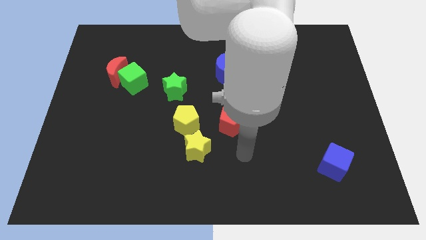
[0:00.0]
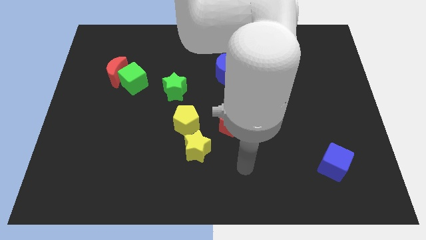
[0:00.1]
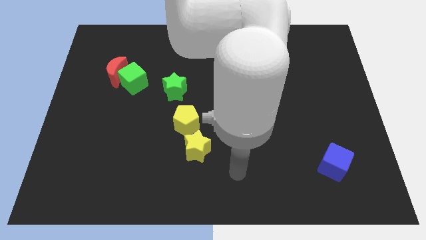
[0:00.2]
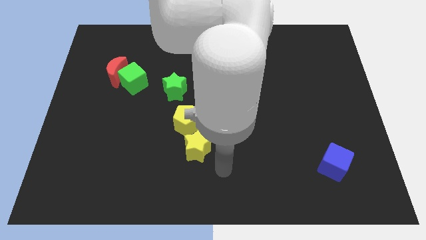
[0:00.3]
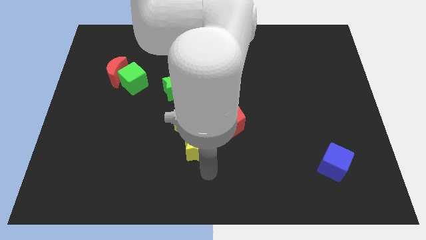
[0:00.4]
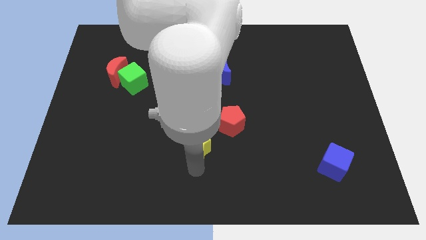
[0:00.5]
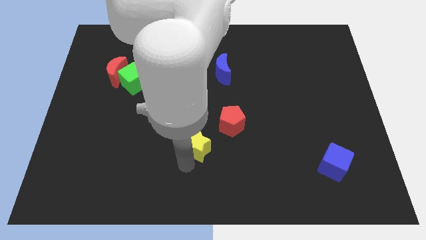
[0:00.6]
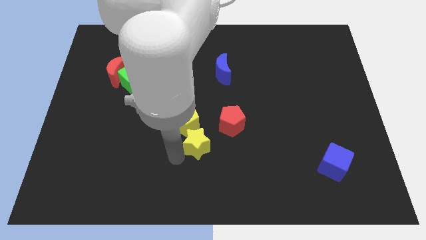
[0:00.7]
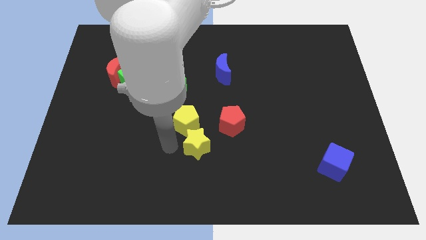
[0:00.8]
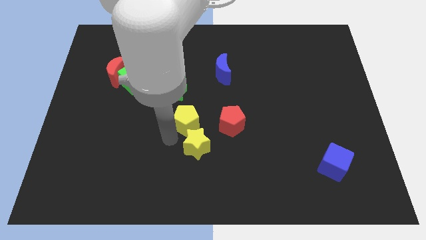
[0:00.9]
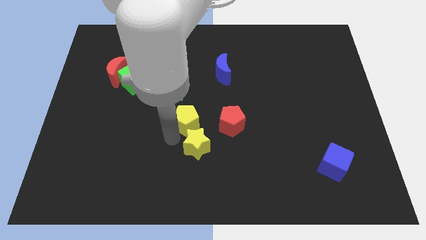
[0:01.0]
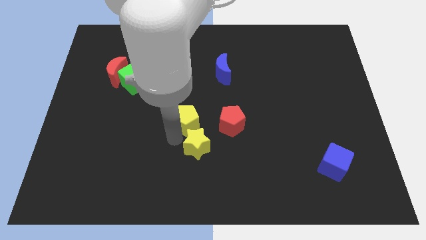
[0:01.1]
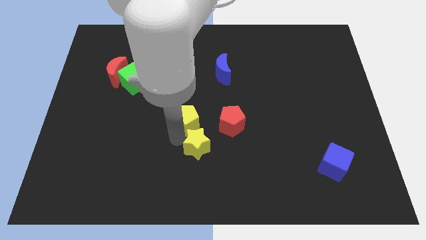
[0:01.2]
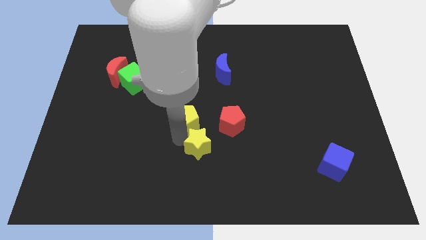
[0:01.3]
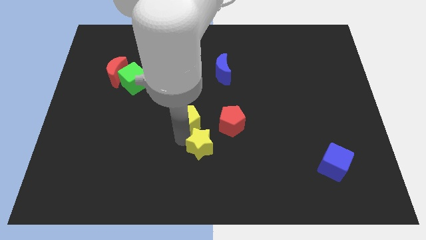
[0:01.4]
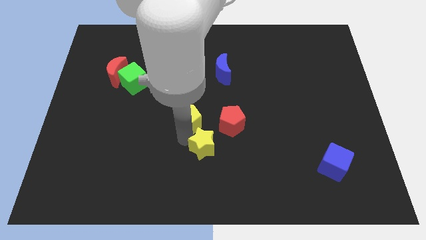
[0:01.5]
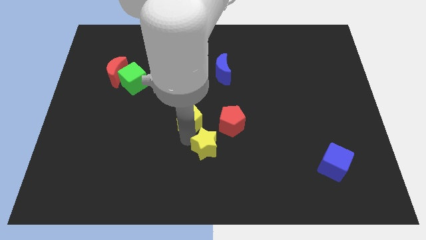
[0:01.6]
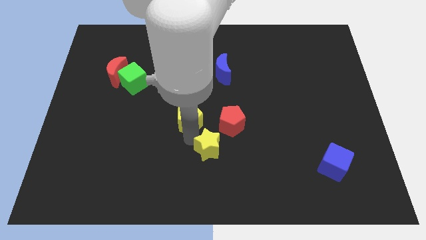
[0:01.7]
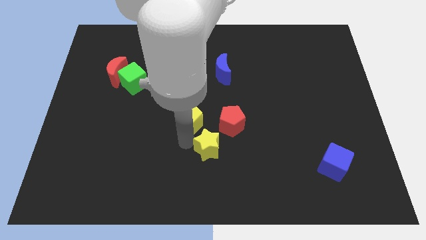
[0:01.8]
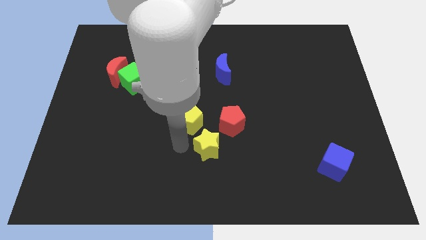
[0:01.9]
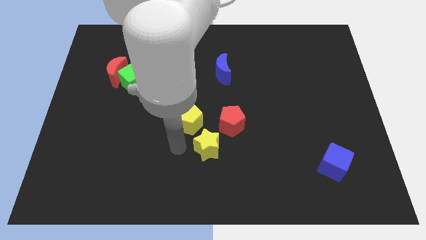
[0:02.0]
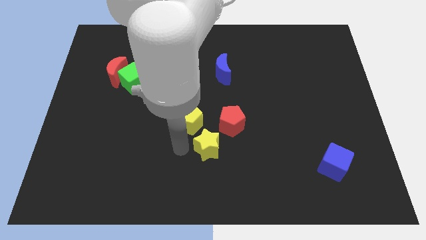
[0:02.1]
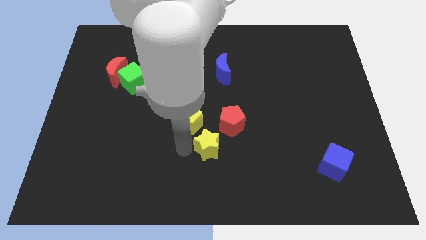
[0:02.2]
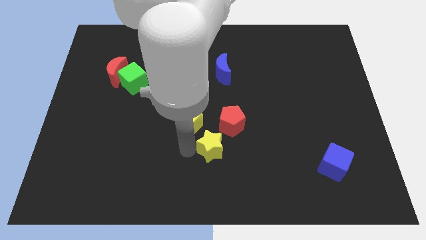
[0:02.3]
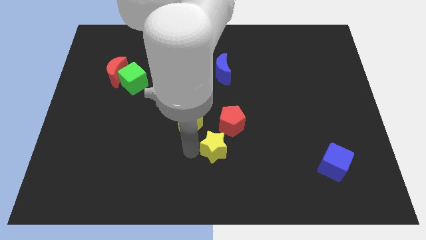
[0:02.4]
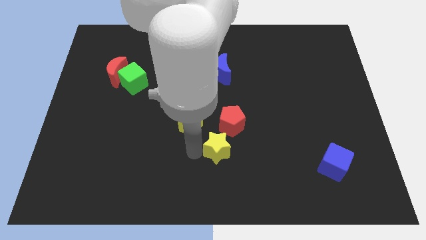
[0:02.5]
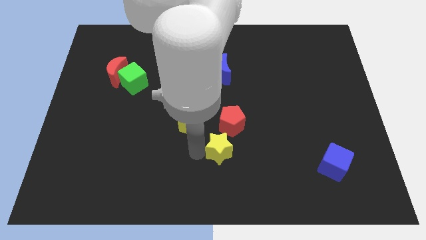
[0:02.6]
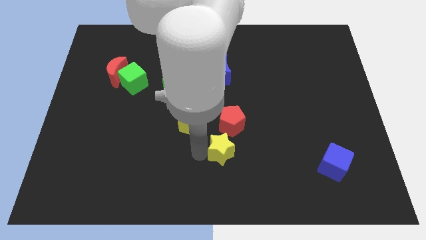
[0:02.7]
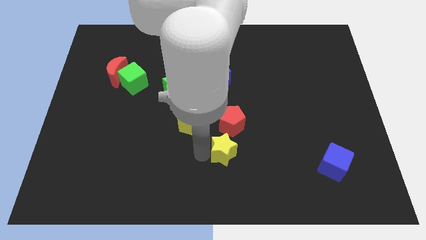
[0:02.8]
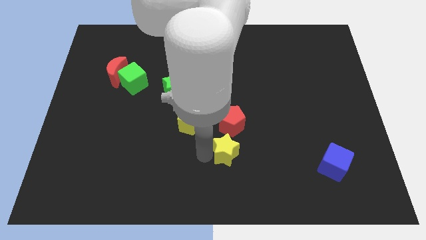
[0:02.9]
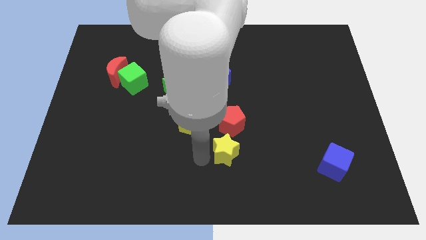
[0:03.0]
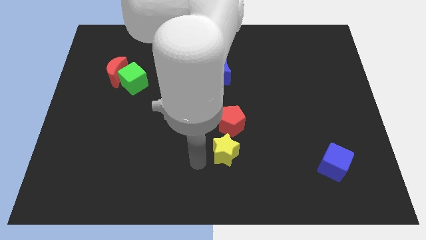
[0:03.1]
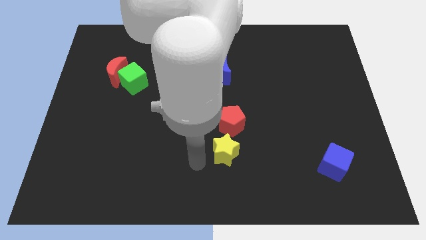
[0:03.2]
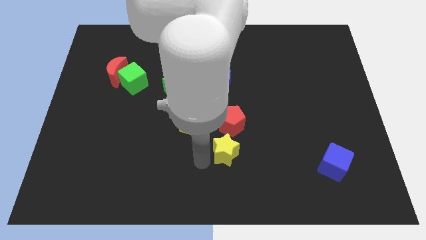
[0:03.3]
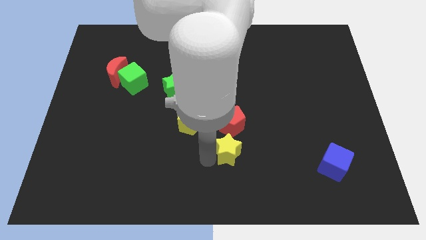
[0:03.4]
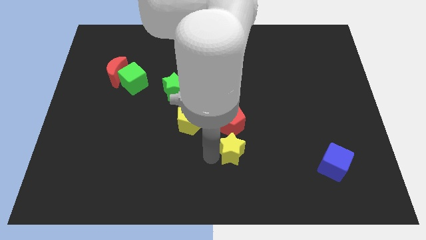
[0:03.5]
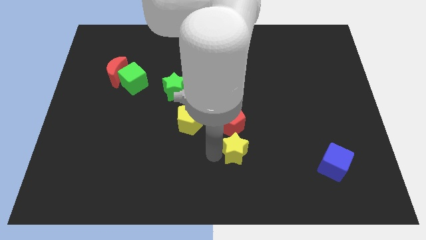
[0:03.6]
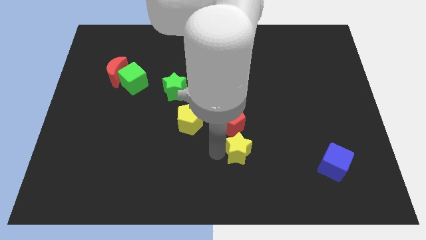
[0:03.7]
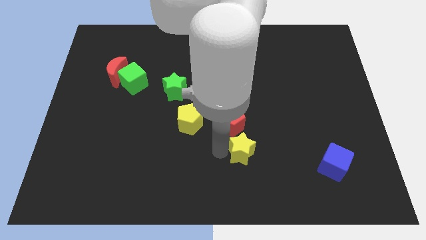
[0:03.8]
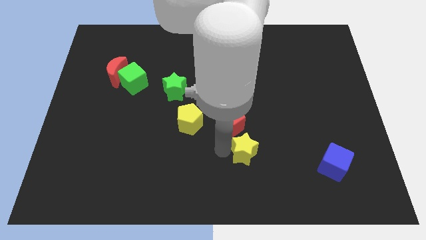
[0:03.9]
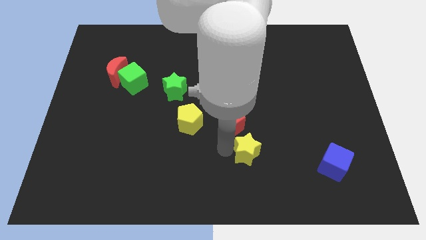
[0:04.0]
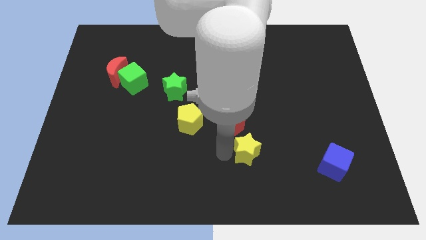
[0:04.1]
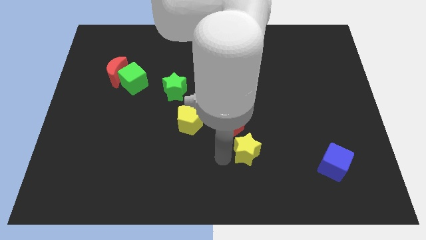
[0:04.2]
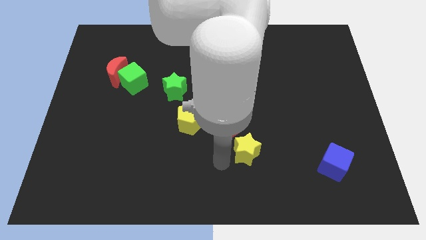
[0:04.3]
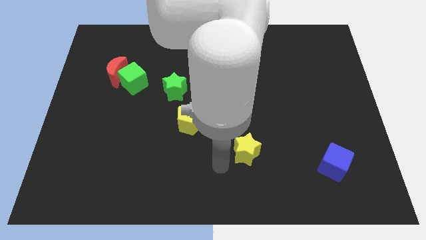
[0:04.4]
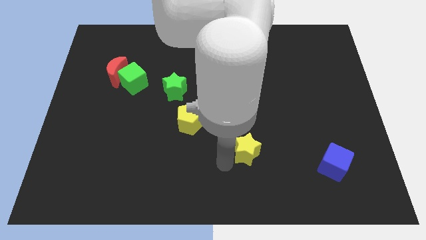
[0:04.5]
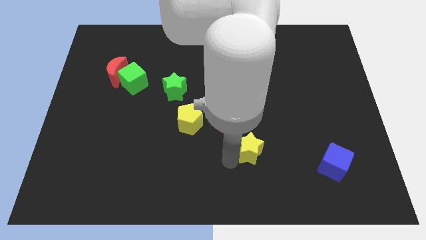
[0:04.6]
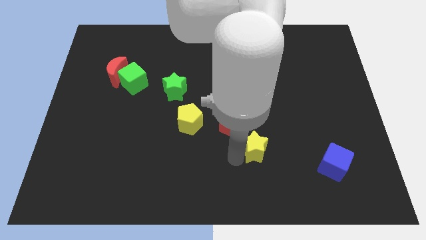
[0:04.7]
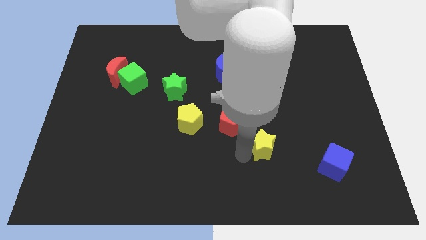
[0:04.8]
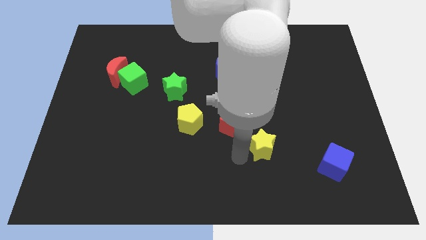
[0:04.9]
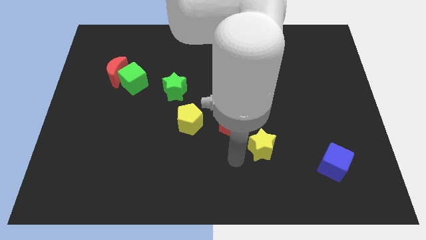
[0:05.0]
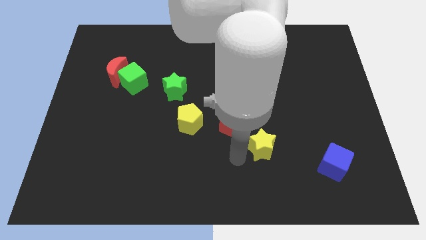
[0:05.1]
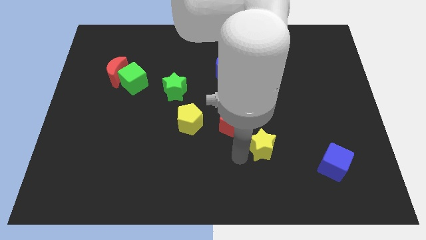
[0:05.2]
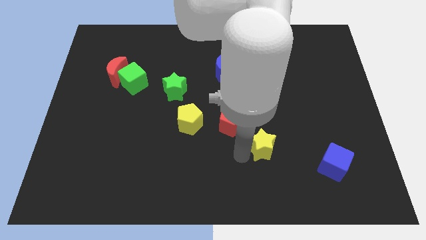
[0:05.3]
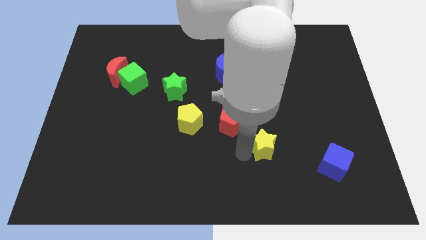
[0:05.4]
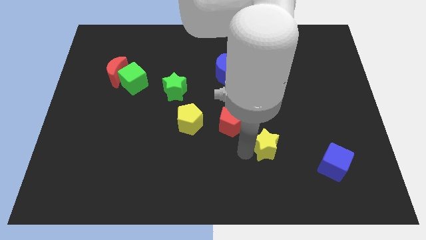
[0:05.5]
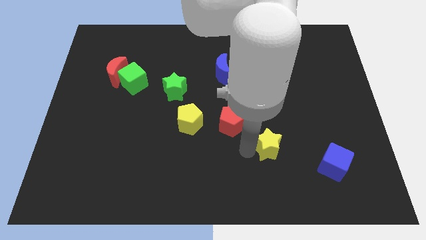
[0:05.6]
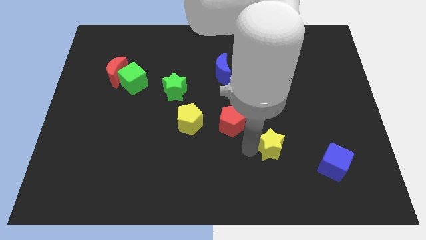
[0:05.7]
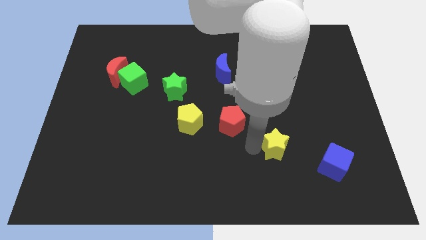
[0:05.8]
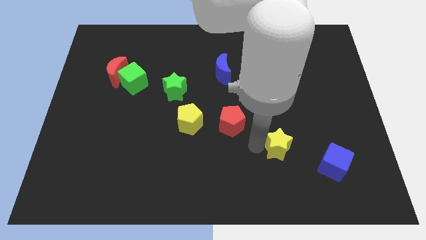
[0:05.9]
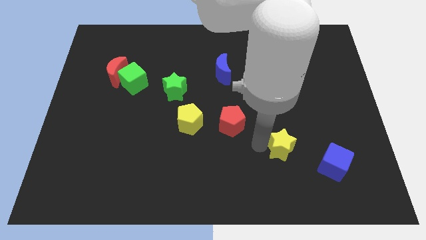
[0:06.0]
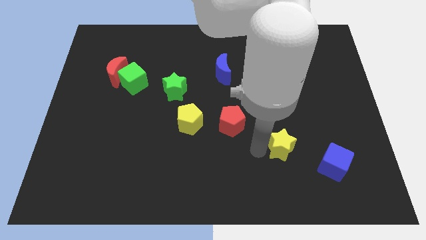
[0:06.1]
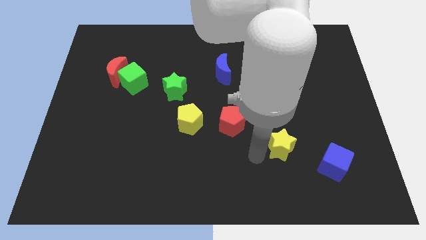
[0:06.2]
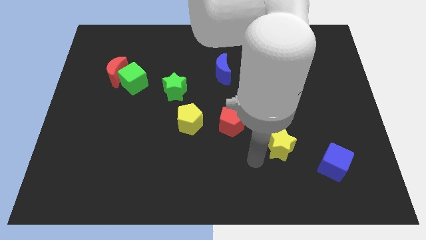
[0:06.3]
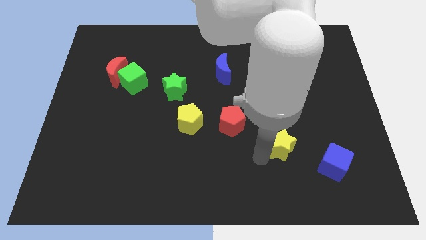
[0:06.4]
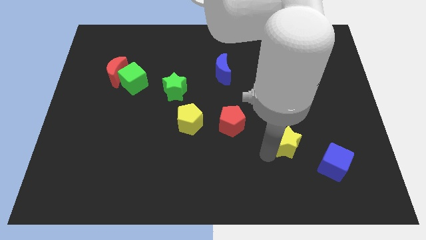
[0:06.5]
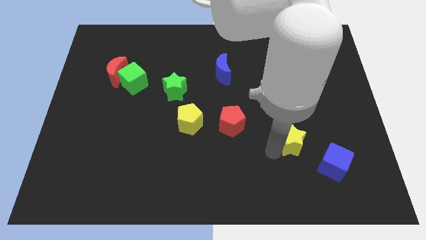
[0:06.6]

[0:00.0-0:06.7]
push the yellow star to the right

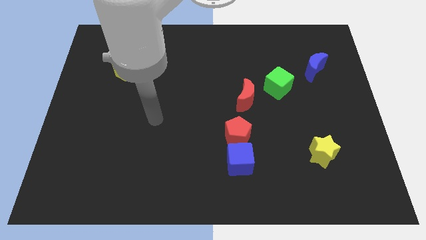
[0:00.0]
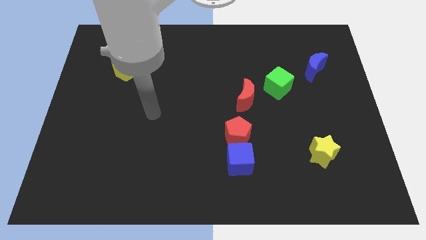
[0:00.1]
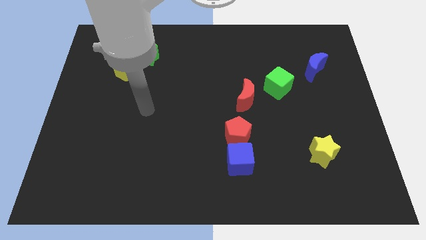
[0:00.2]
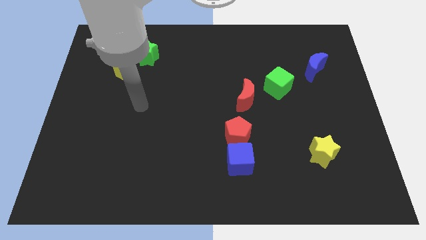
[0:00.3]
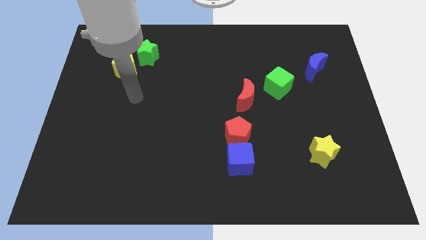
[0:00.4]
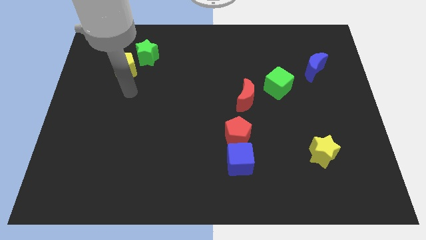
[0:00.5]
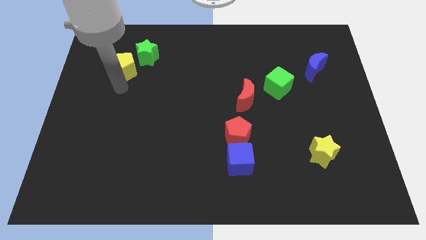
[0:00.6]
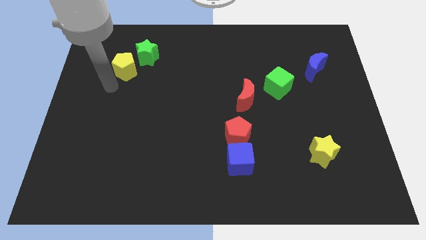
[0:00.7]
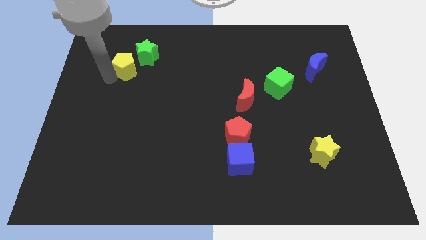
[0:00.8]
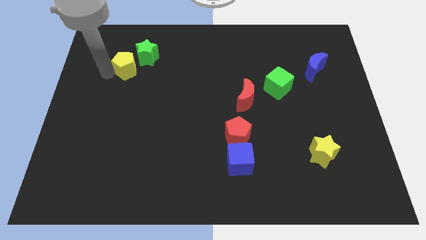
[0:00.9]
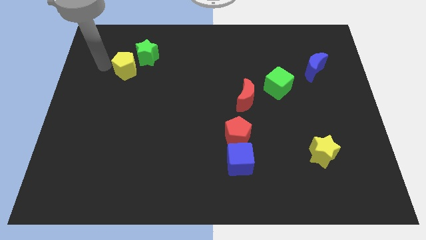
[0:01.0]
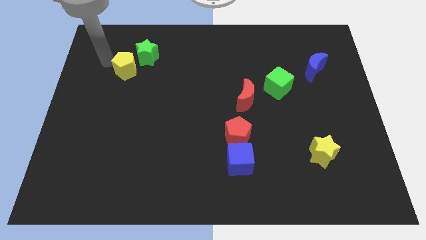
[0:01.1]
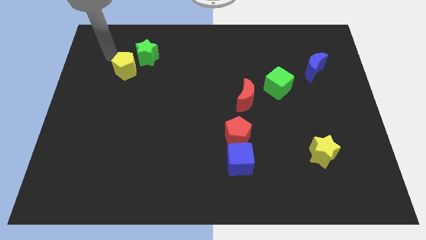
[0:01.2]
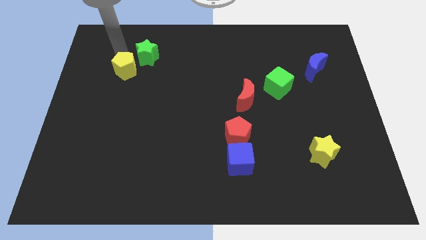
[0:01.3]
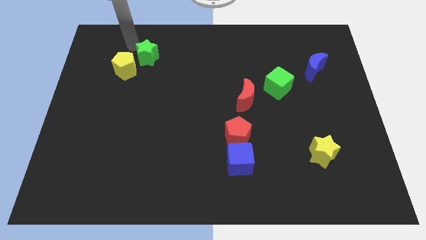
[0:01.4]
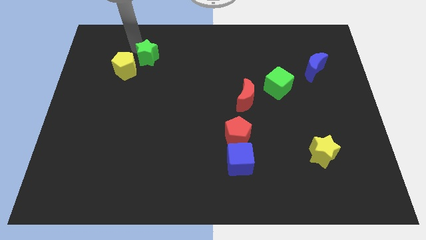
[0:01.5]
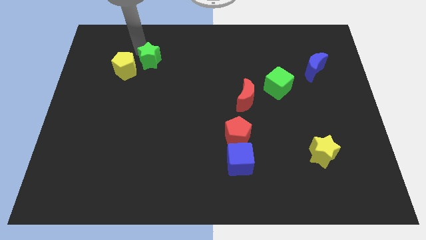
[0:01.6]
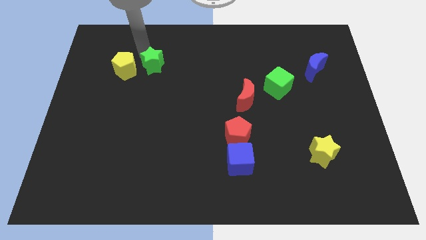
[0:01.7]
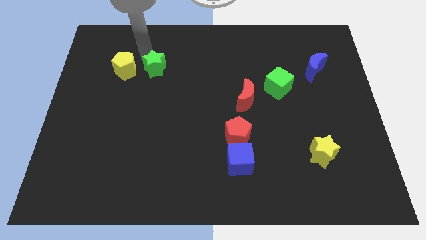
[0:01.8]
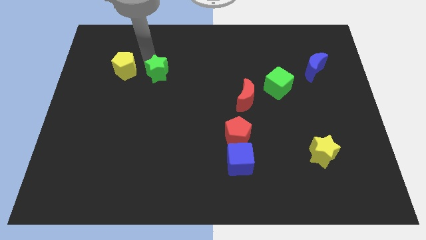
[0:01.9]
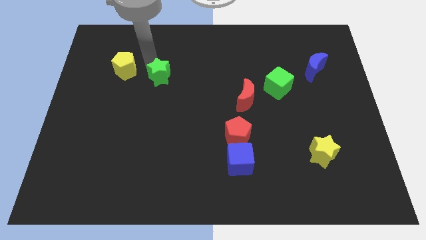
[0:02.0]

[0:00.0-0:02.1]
slide the green star somewhat downwards and right diagonally
